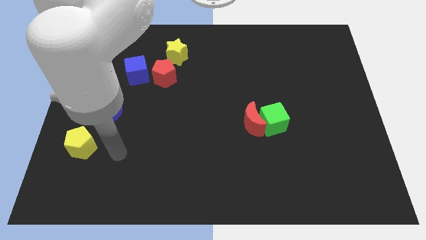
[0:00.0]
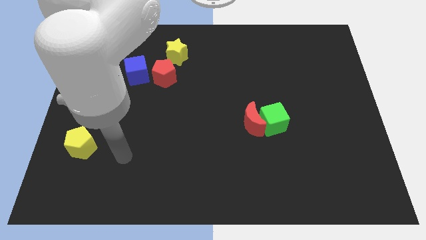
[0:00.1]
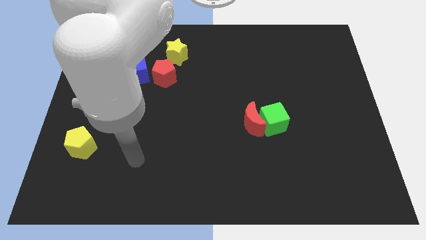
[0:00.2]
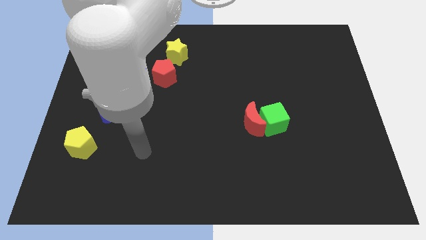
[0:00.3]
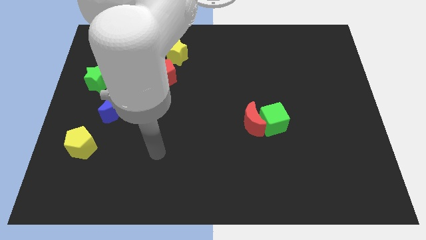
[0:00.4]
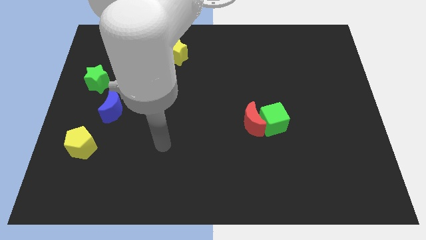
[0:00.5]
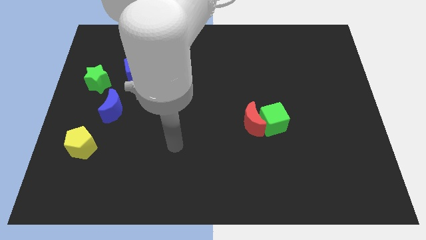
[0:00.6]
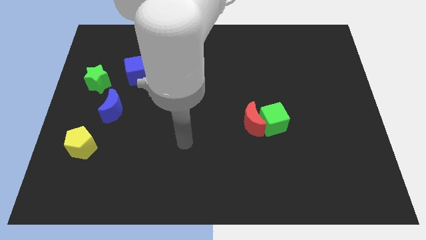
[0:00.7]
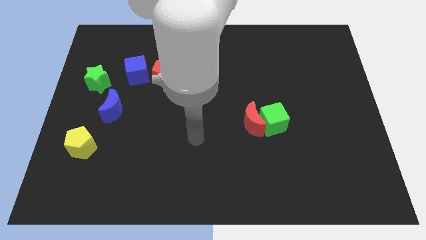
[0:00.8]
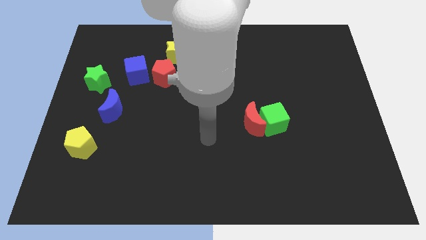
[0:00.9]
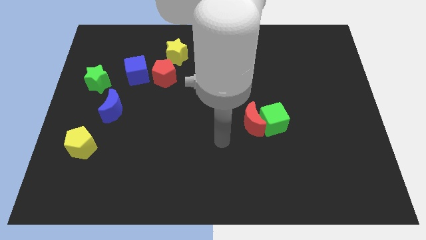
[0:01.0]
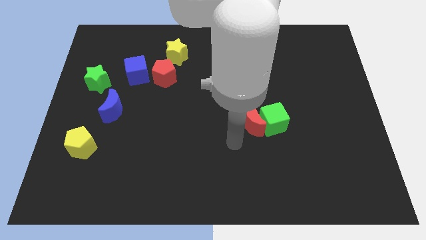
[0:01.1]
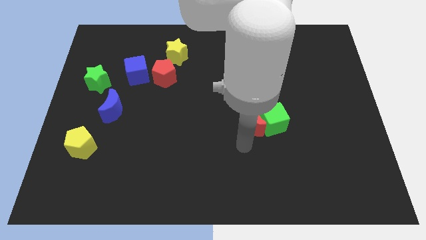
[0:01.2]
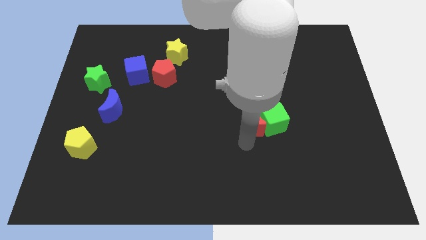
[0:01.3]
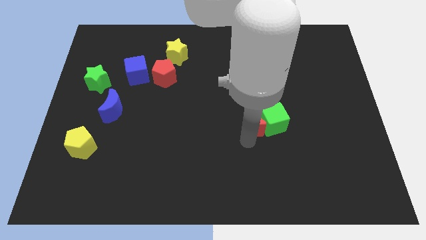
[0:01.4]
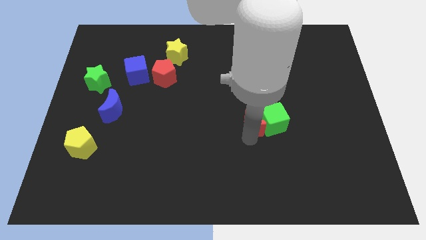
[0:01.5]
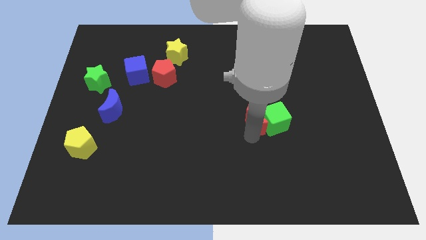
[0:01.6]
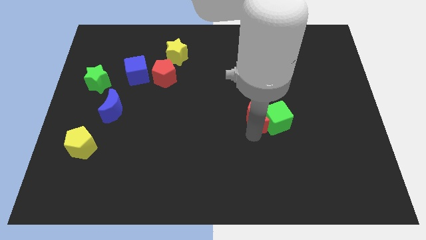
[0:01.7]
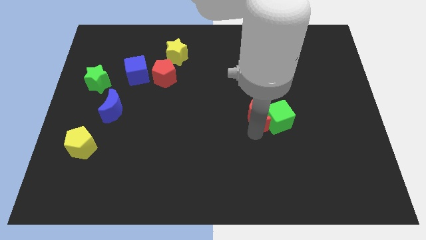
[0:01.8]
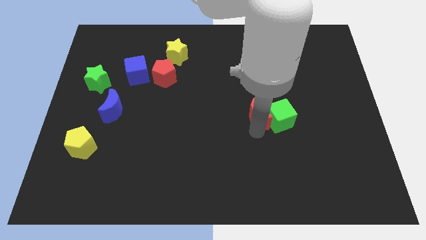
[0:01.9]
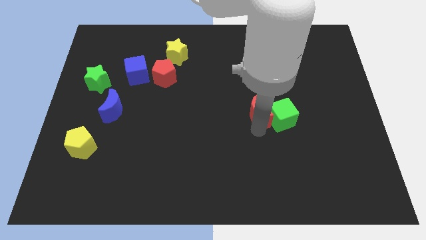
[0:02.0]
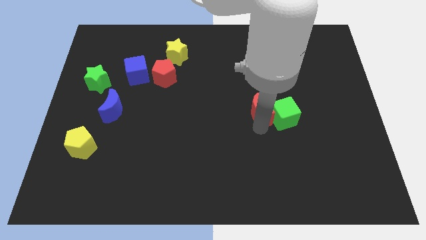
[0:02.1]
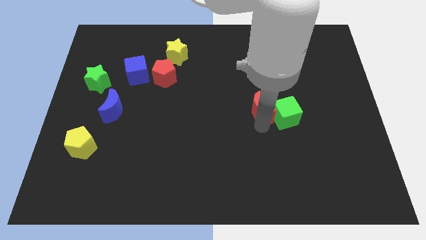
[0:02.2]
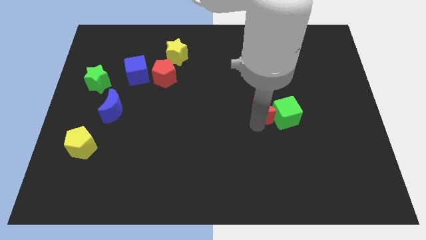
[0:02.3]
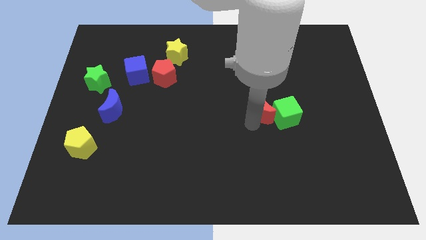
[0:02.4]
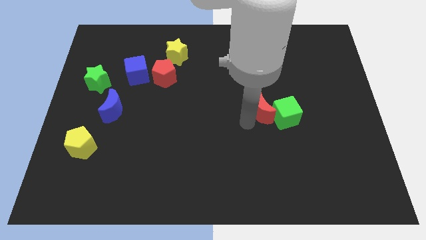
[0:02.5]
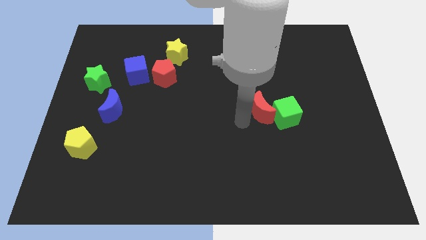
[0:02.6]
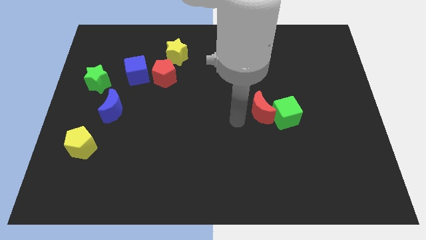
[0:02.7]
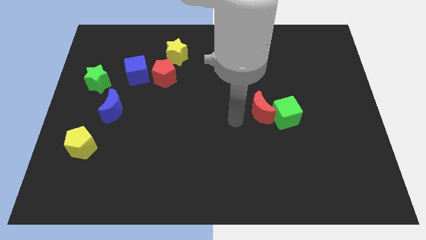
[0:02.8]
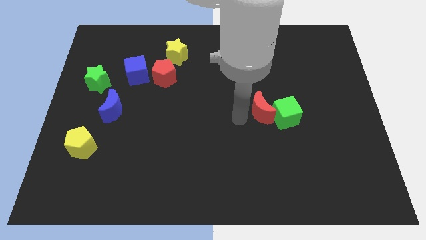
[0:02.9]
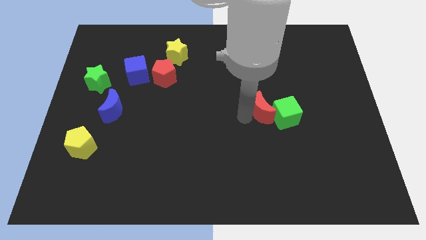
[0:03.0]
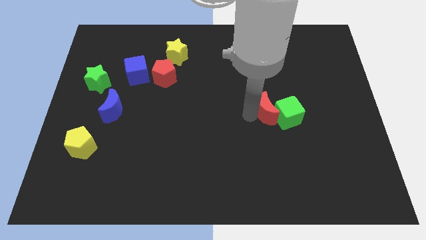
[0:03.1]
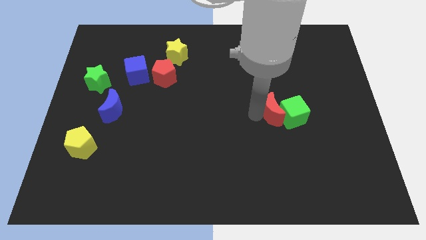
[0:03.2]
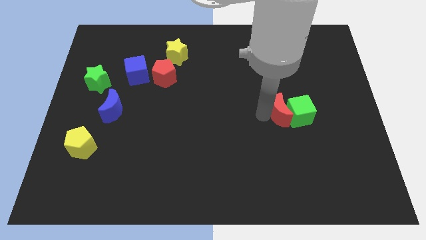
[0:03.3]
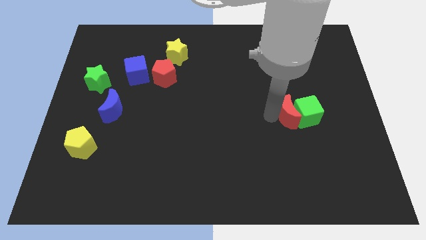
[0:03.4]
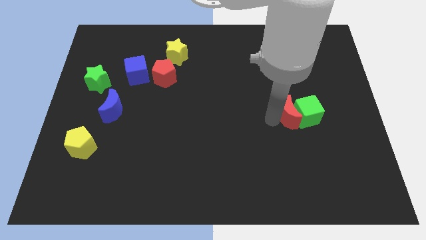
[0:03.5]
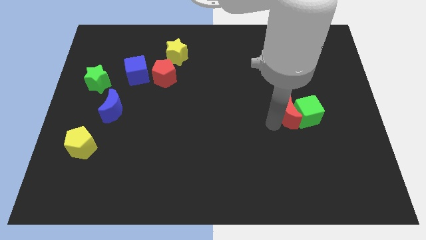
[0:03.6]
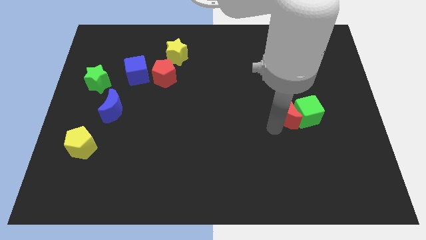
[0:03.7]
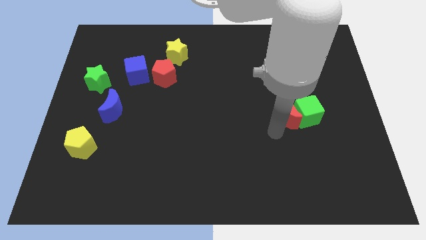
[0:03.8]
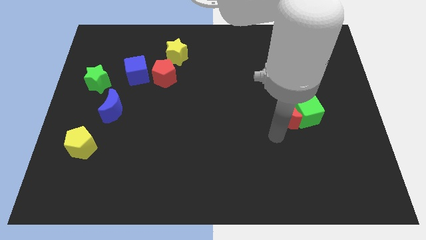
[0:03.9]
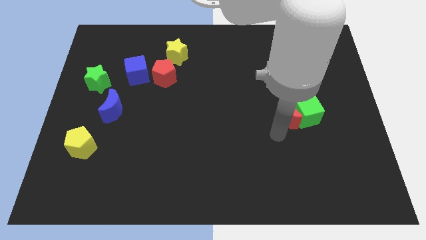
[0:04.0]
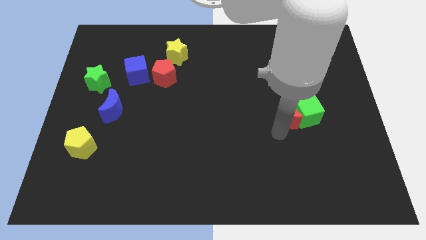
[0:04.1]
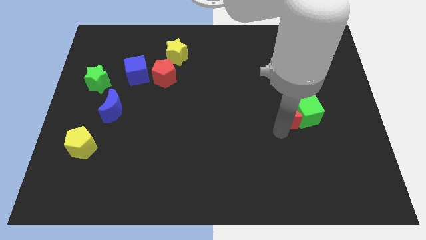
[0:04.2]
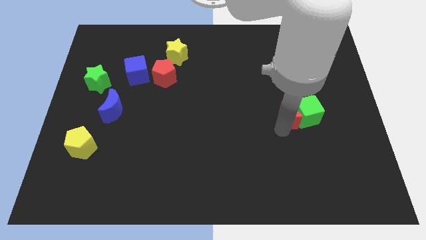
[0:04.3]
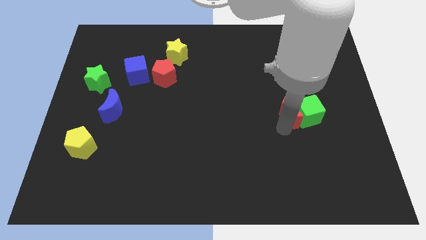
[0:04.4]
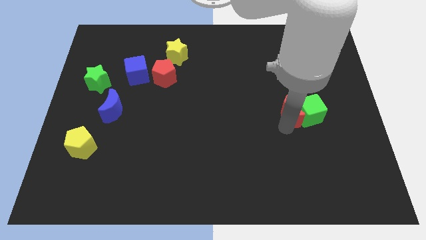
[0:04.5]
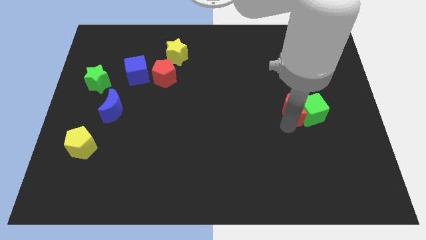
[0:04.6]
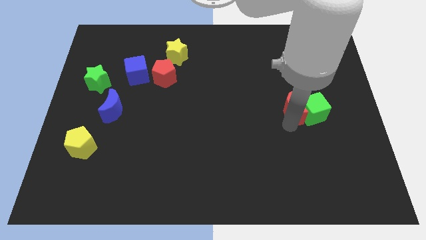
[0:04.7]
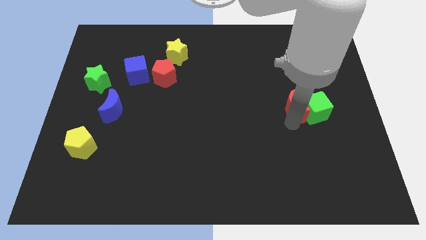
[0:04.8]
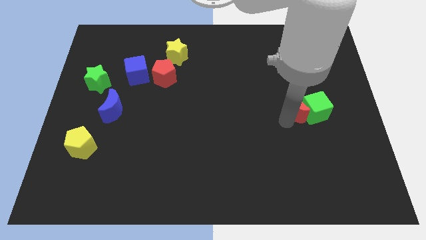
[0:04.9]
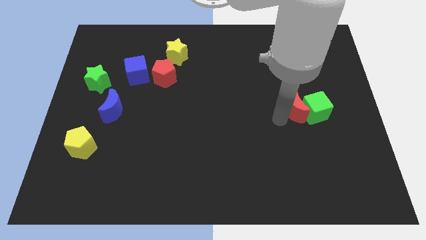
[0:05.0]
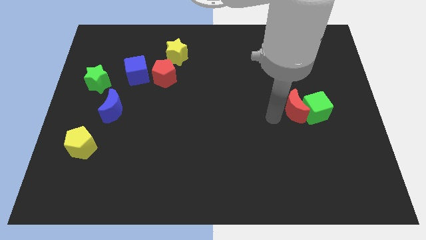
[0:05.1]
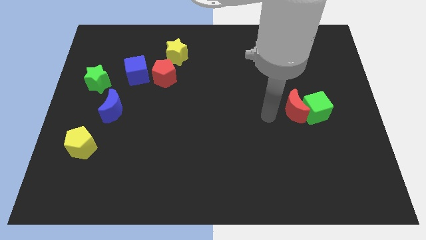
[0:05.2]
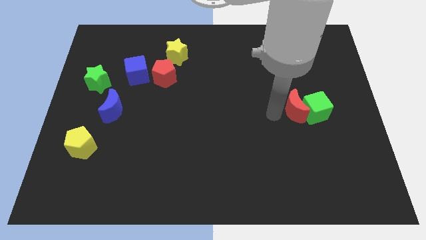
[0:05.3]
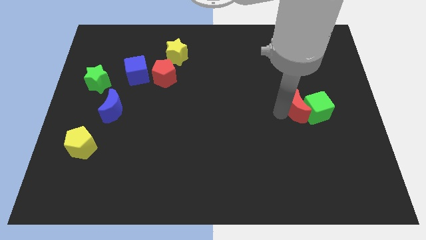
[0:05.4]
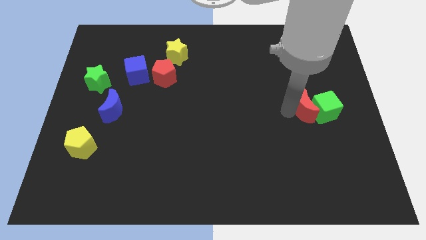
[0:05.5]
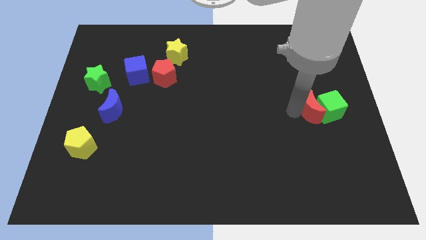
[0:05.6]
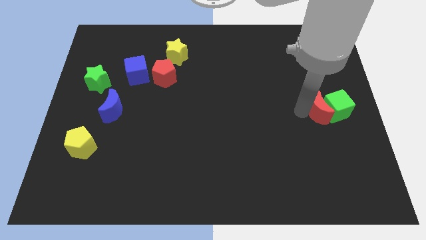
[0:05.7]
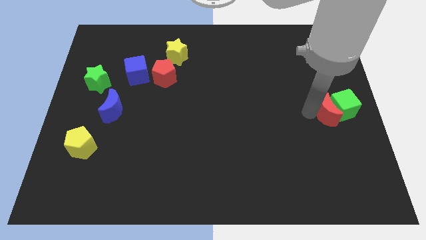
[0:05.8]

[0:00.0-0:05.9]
slide the red moon to the center right

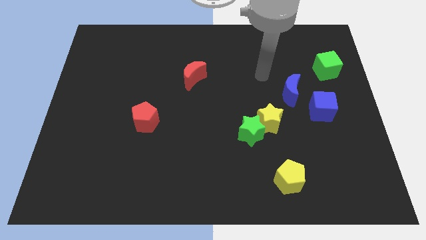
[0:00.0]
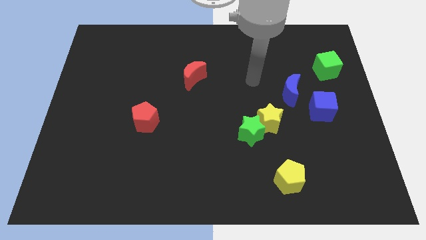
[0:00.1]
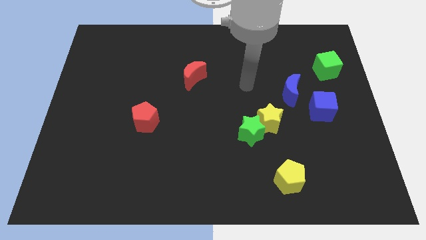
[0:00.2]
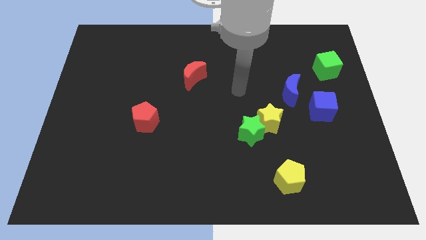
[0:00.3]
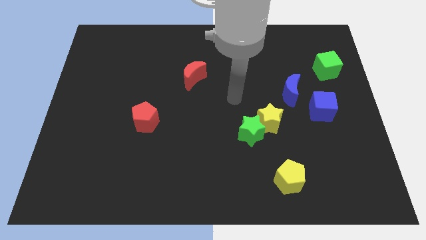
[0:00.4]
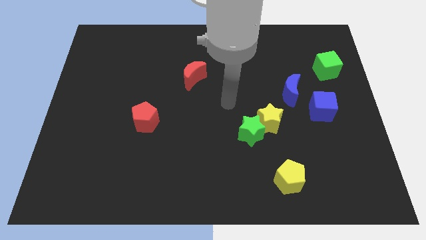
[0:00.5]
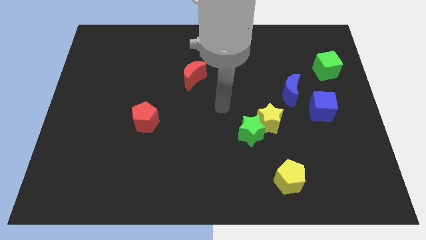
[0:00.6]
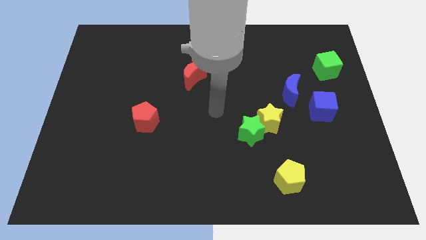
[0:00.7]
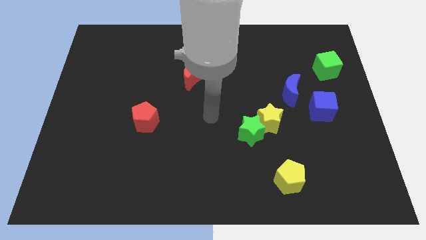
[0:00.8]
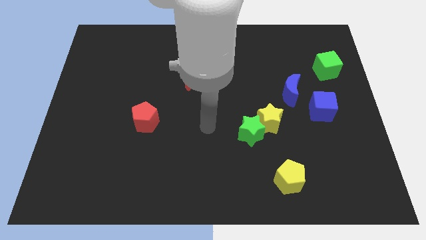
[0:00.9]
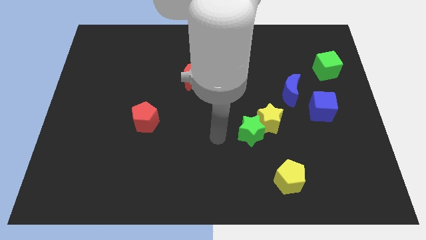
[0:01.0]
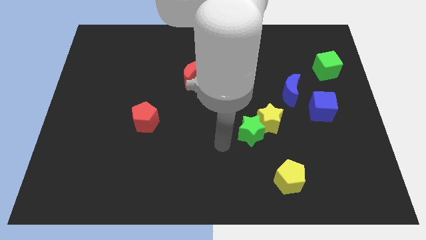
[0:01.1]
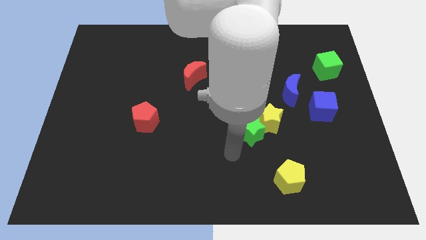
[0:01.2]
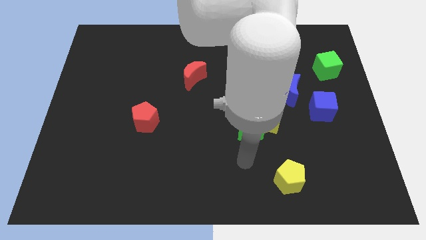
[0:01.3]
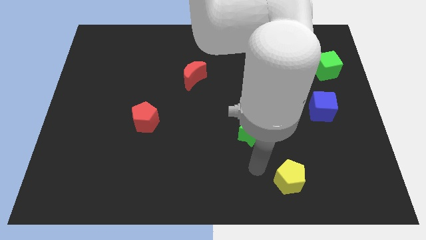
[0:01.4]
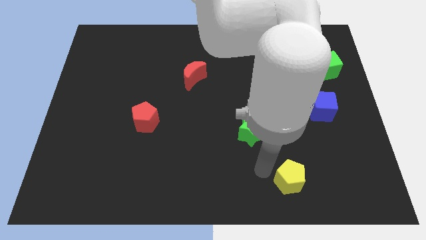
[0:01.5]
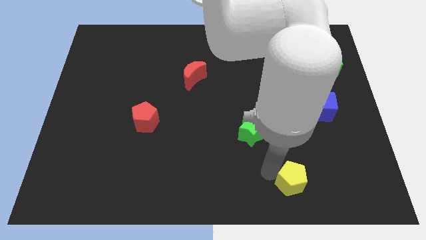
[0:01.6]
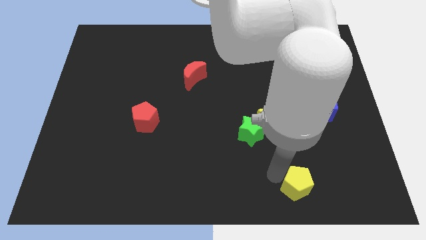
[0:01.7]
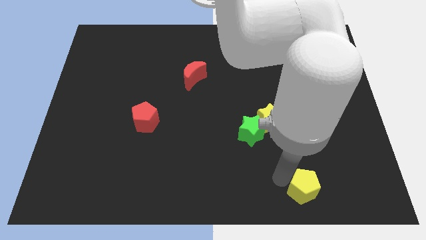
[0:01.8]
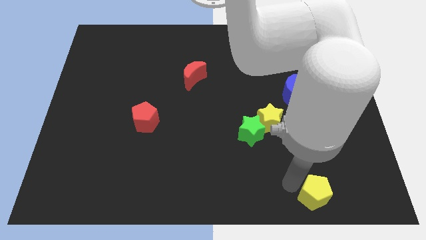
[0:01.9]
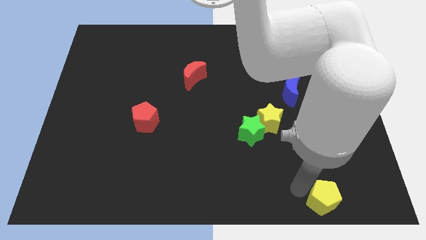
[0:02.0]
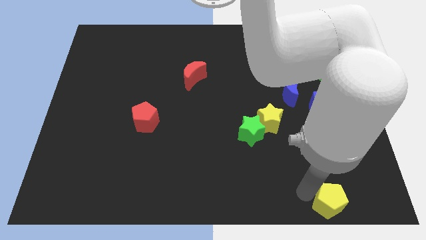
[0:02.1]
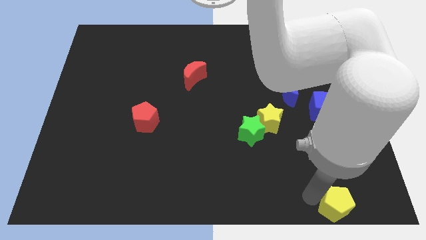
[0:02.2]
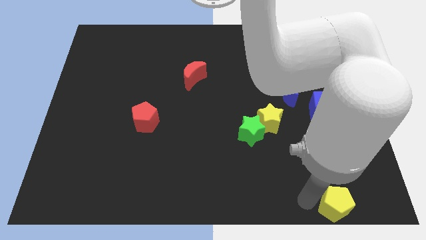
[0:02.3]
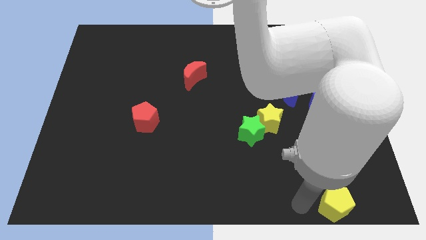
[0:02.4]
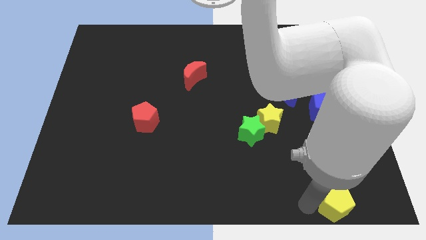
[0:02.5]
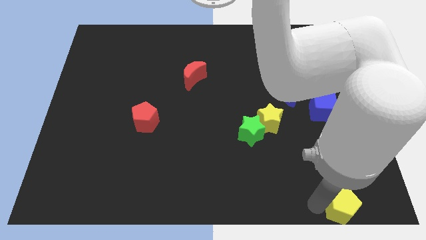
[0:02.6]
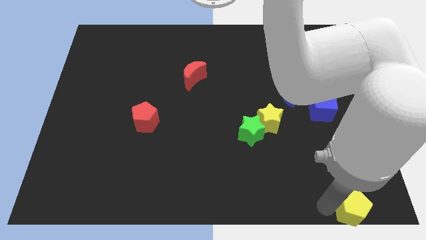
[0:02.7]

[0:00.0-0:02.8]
slide the yellow pentagon to the bottom right of the board
